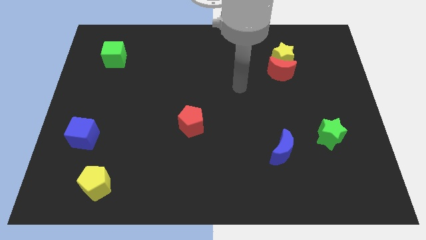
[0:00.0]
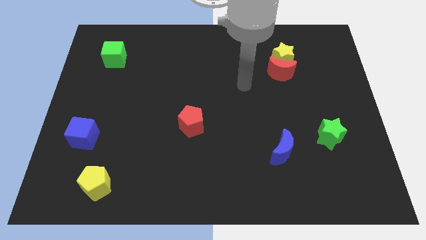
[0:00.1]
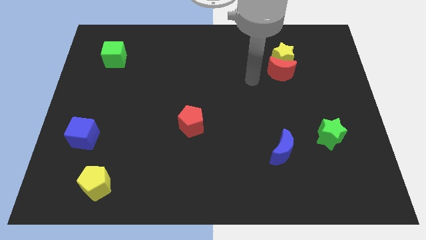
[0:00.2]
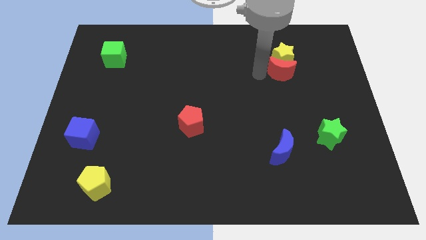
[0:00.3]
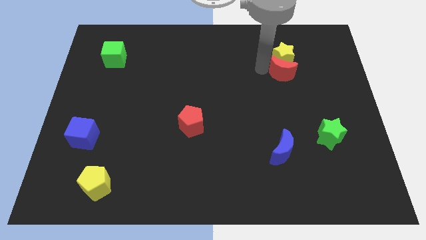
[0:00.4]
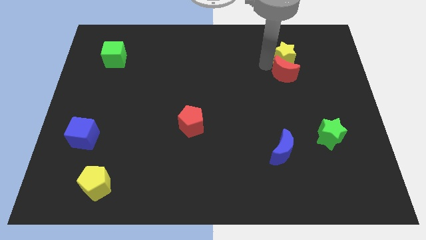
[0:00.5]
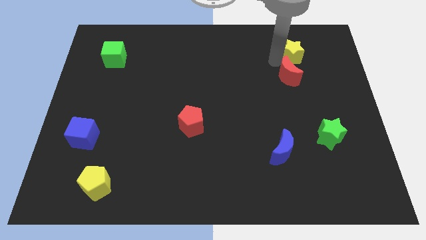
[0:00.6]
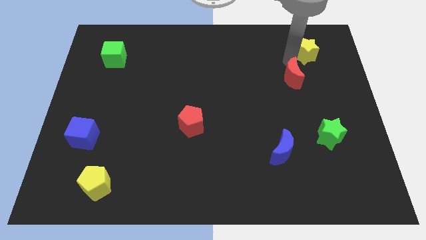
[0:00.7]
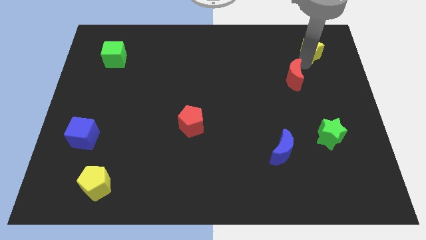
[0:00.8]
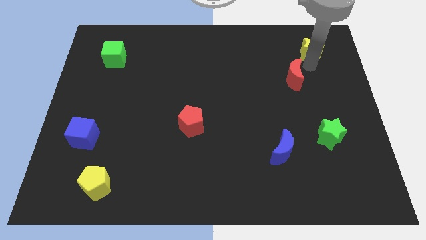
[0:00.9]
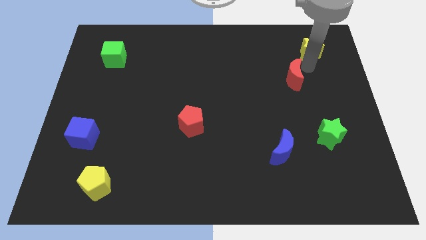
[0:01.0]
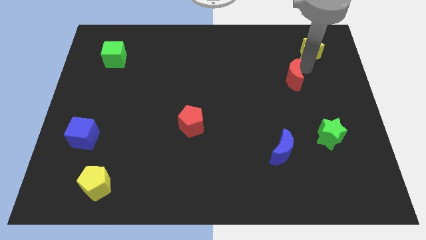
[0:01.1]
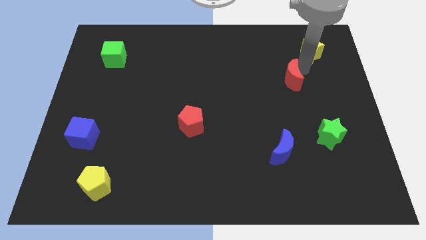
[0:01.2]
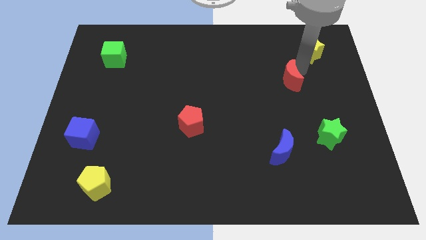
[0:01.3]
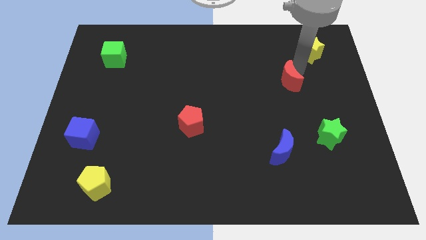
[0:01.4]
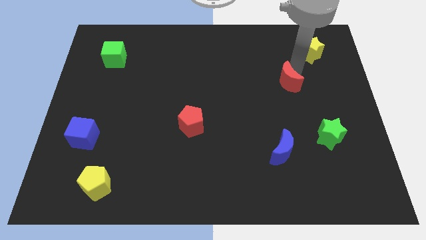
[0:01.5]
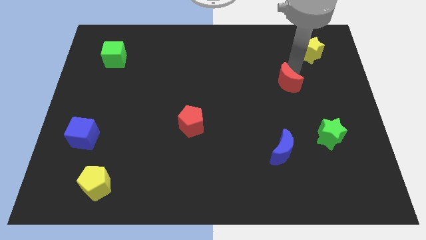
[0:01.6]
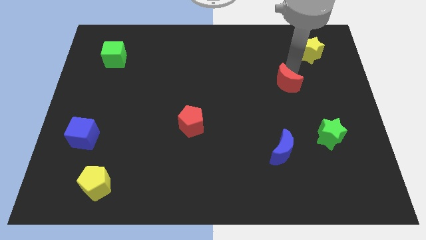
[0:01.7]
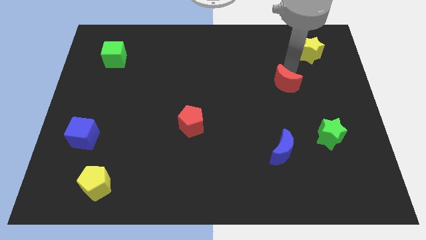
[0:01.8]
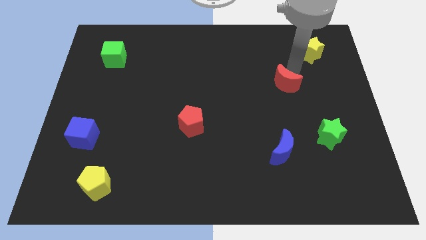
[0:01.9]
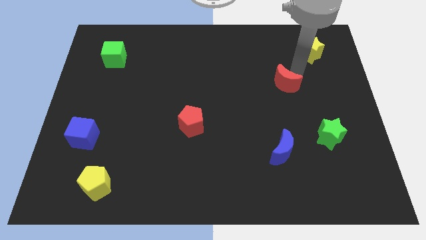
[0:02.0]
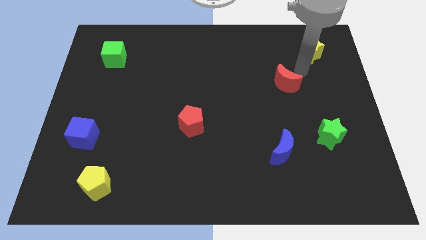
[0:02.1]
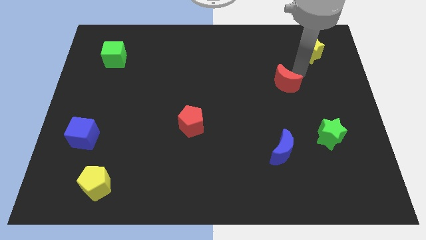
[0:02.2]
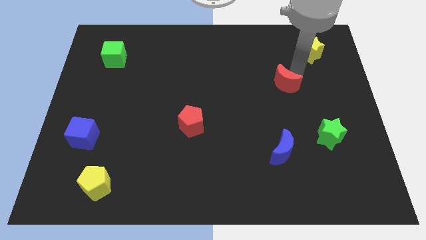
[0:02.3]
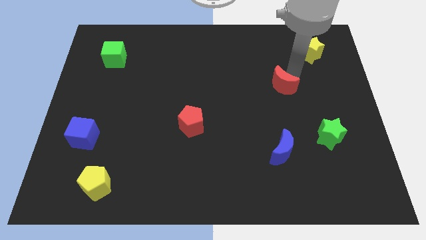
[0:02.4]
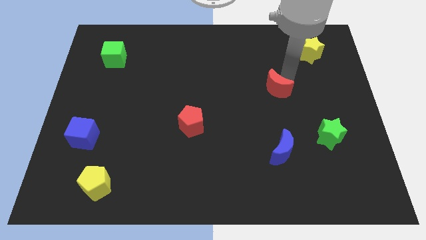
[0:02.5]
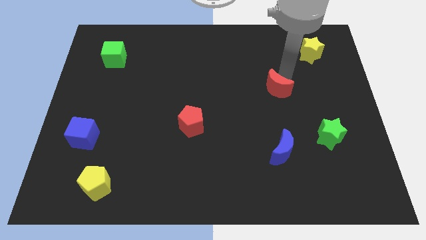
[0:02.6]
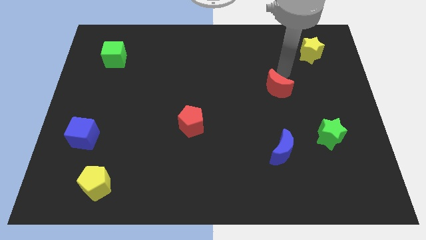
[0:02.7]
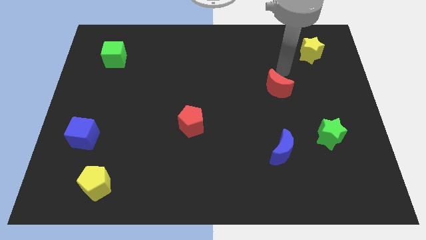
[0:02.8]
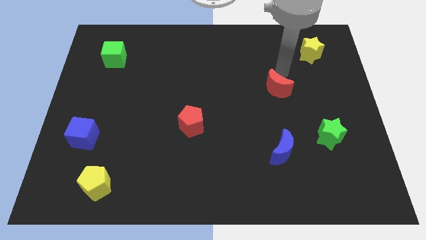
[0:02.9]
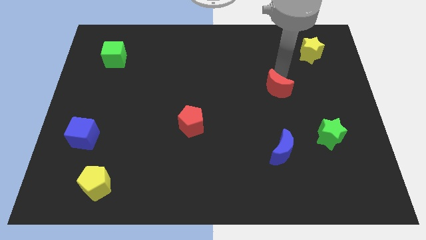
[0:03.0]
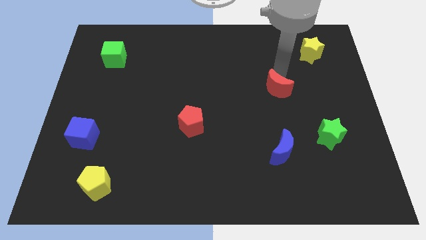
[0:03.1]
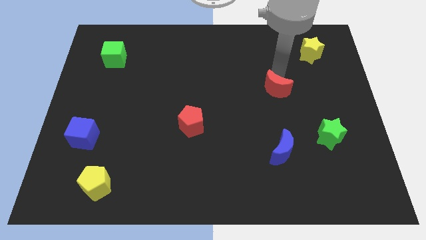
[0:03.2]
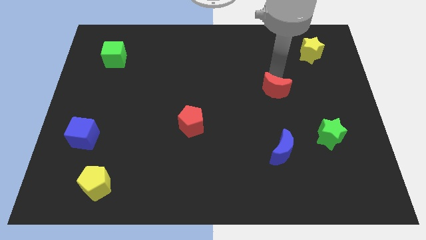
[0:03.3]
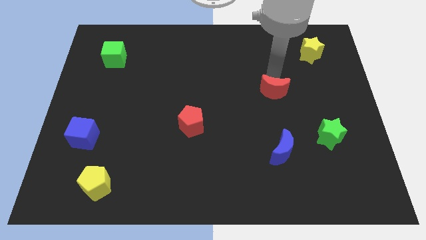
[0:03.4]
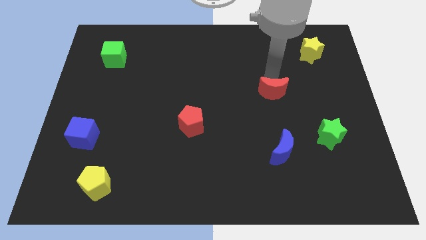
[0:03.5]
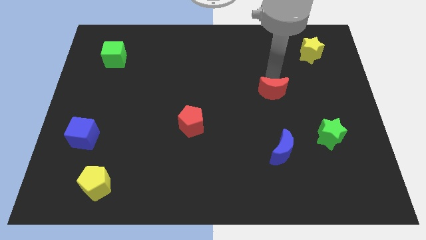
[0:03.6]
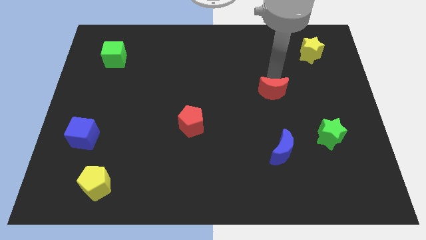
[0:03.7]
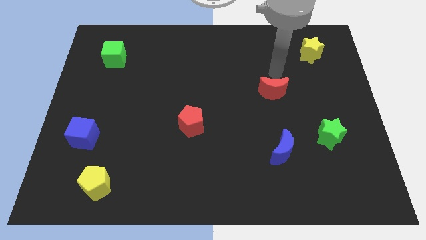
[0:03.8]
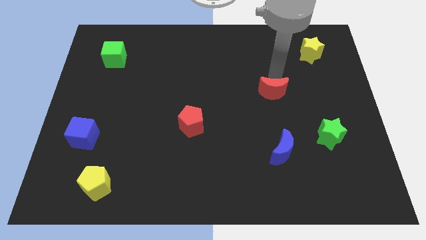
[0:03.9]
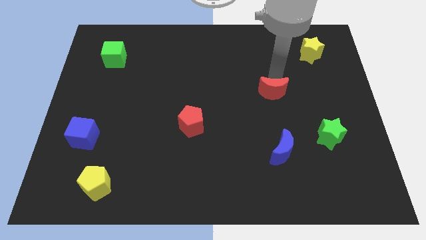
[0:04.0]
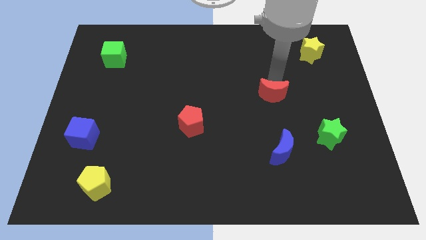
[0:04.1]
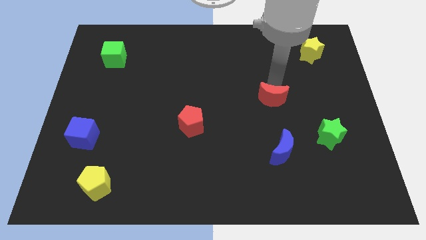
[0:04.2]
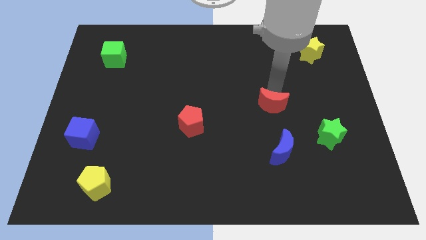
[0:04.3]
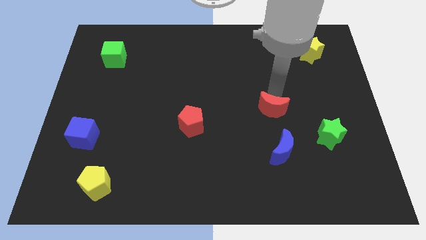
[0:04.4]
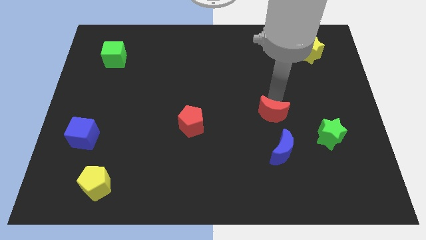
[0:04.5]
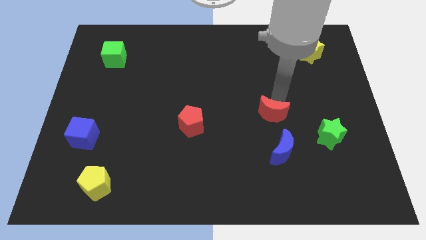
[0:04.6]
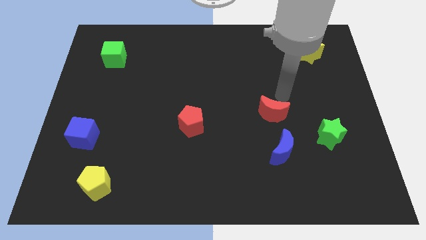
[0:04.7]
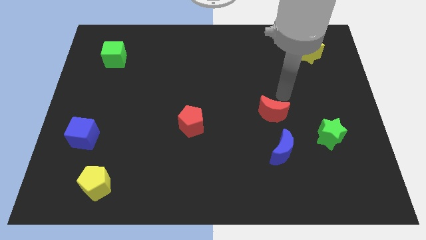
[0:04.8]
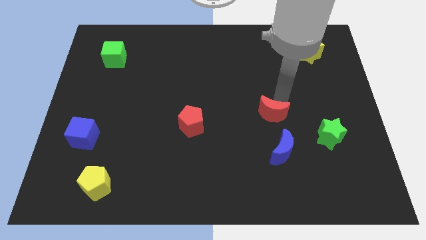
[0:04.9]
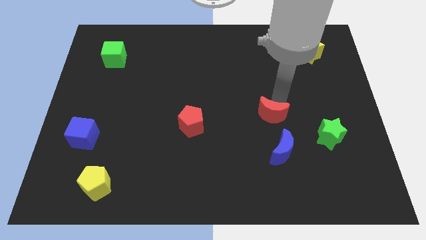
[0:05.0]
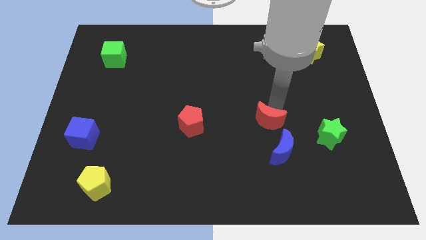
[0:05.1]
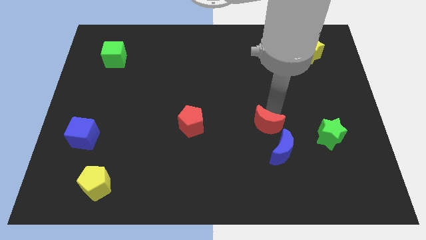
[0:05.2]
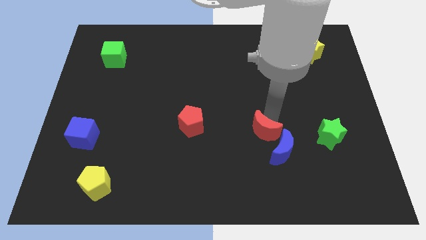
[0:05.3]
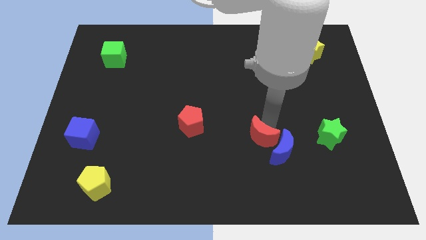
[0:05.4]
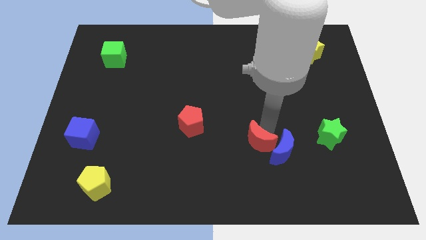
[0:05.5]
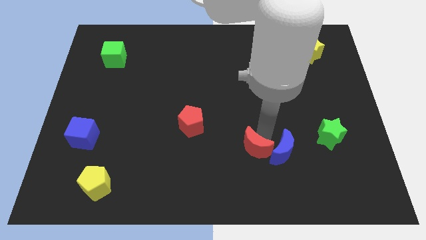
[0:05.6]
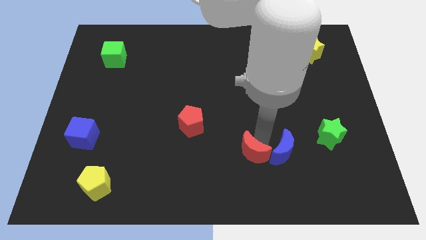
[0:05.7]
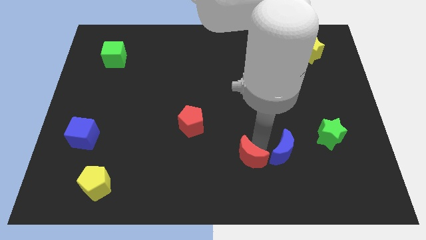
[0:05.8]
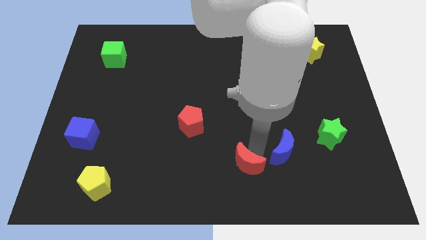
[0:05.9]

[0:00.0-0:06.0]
put the red moon to the bottom
